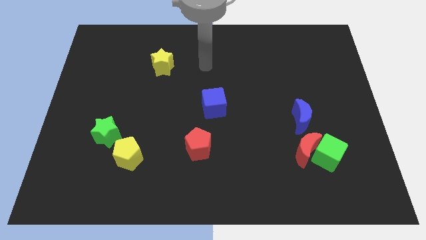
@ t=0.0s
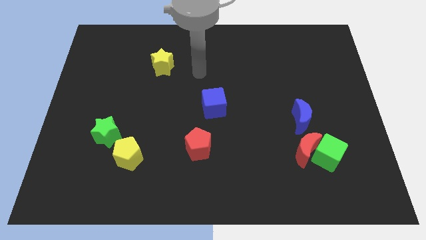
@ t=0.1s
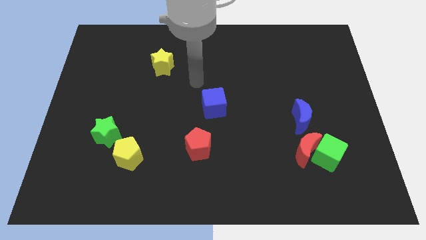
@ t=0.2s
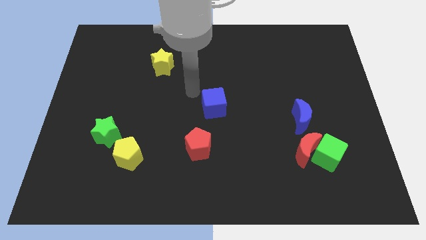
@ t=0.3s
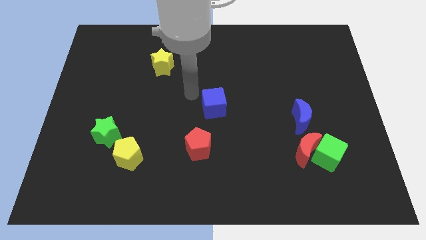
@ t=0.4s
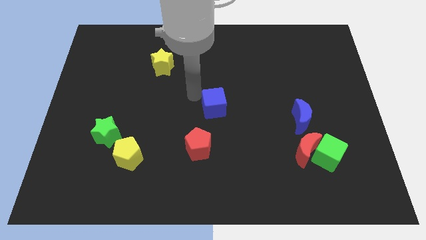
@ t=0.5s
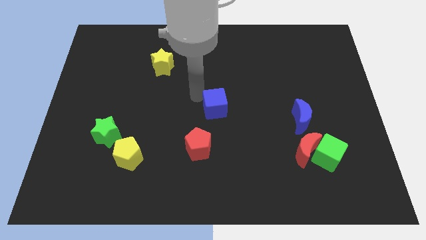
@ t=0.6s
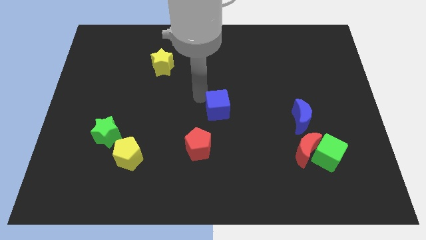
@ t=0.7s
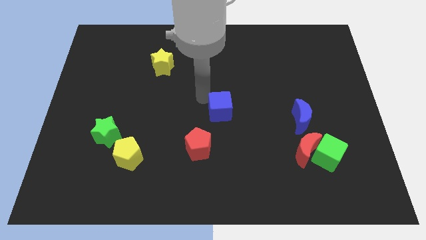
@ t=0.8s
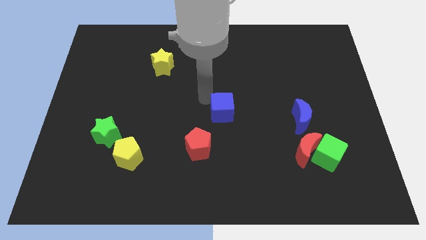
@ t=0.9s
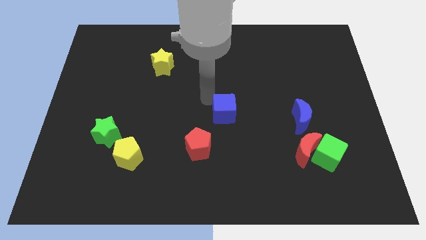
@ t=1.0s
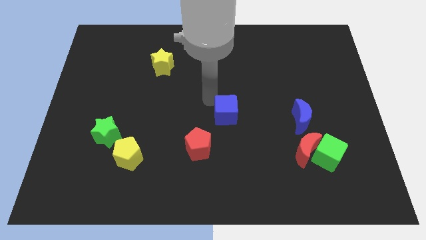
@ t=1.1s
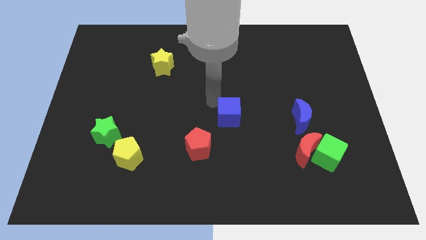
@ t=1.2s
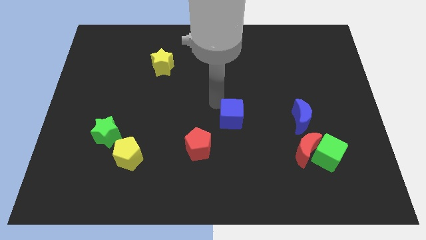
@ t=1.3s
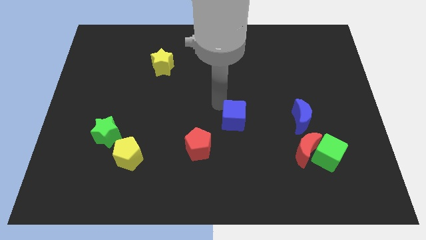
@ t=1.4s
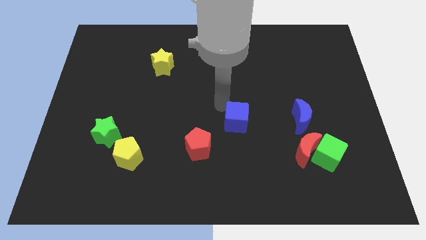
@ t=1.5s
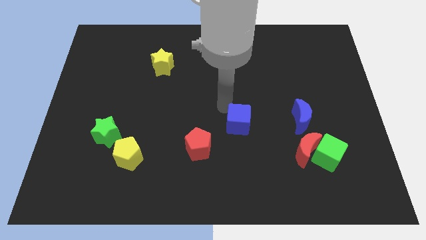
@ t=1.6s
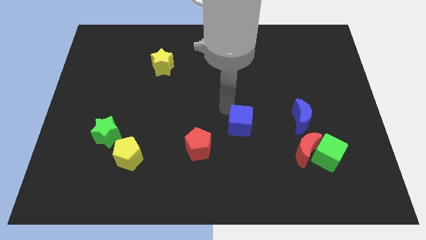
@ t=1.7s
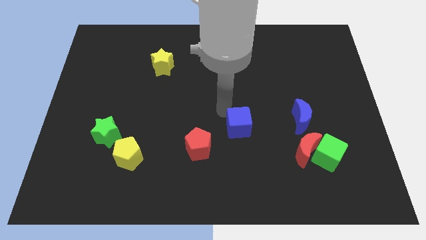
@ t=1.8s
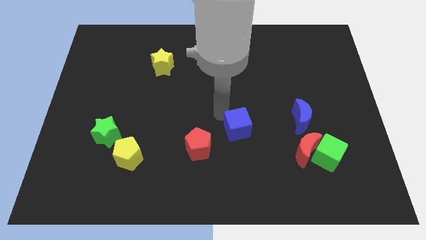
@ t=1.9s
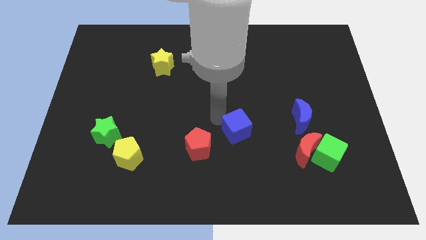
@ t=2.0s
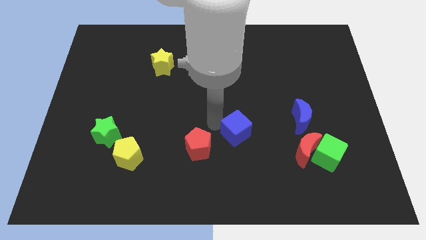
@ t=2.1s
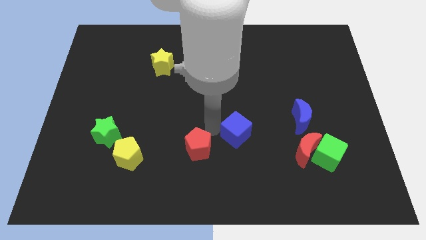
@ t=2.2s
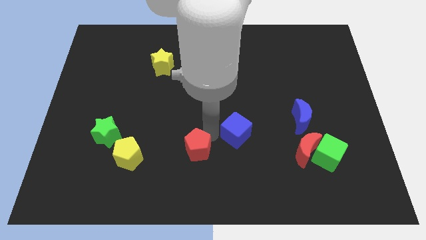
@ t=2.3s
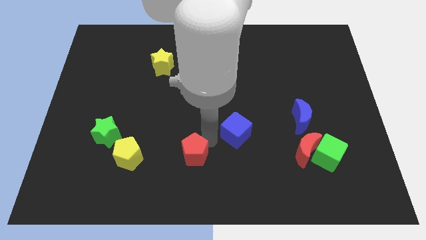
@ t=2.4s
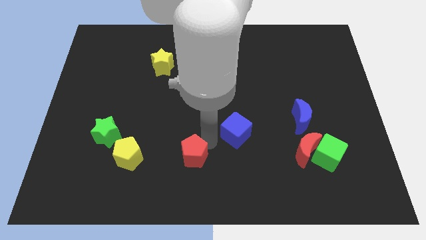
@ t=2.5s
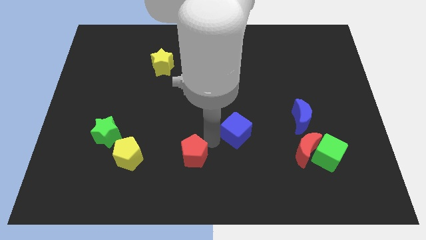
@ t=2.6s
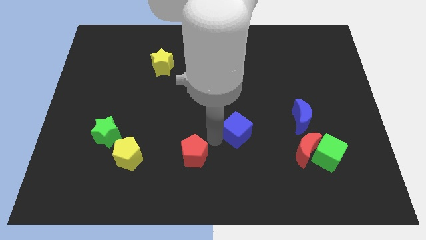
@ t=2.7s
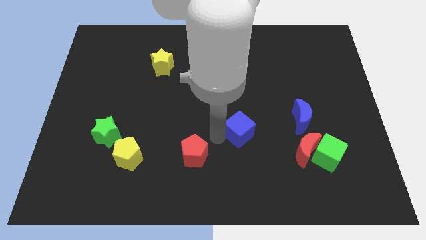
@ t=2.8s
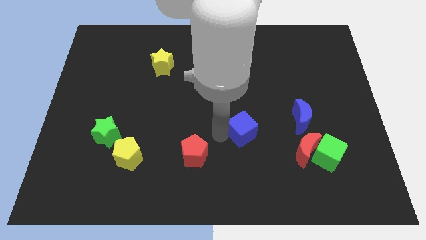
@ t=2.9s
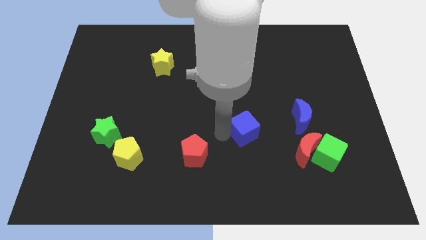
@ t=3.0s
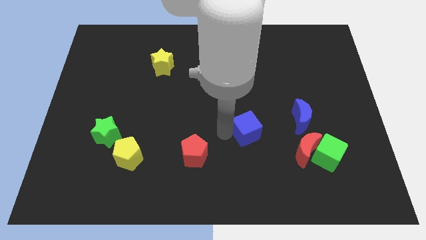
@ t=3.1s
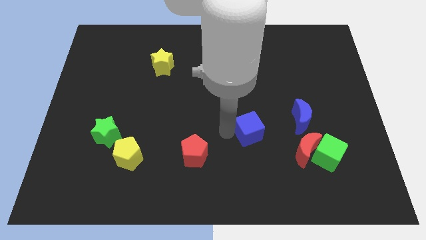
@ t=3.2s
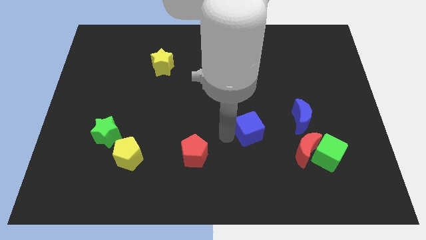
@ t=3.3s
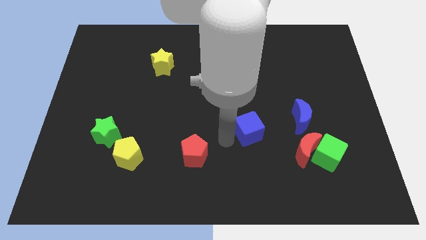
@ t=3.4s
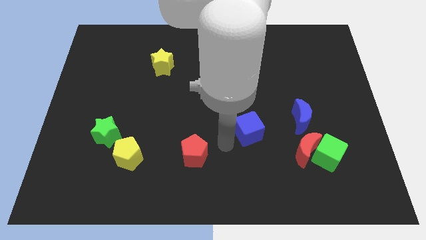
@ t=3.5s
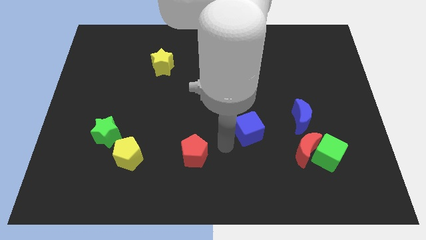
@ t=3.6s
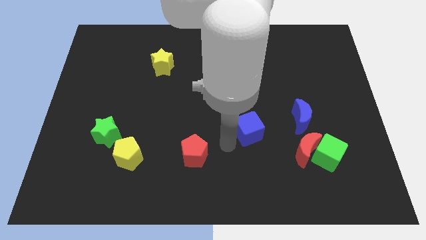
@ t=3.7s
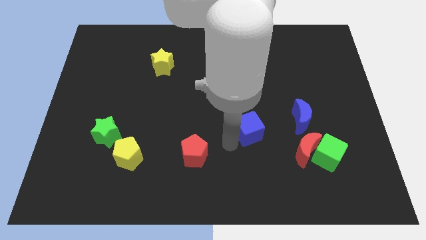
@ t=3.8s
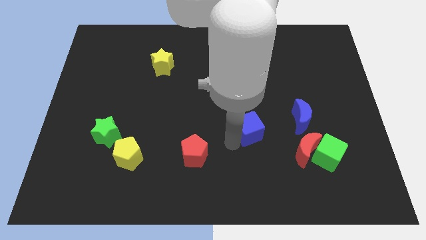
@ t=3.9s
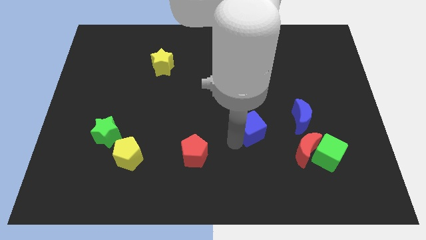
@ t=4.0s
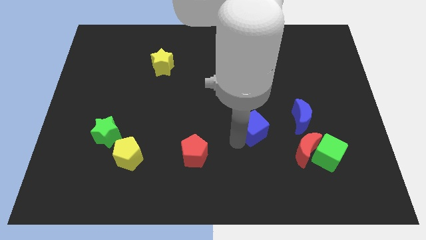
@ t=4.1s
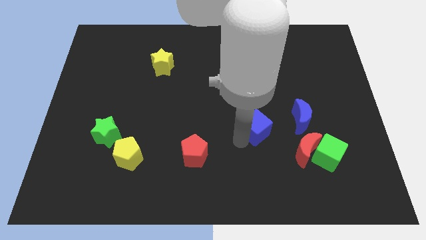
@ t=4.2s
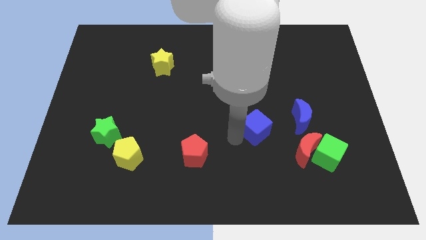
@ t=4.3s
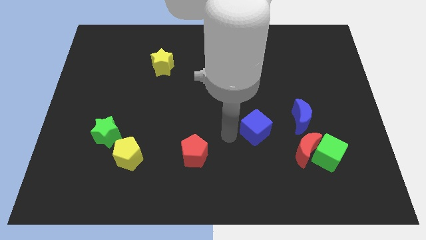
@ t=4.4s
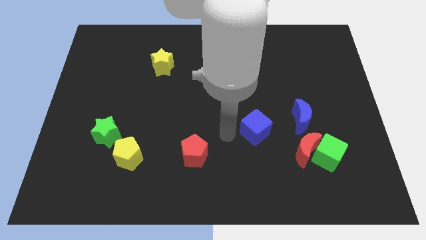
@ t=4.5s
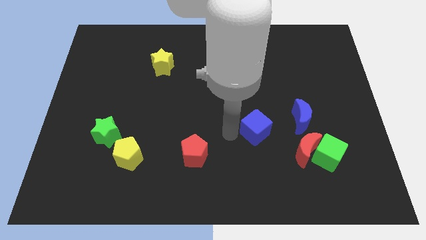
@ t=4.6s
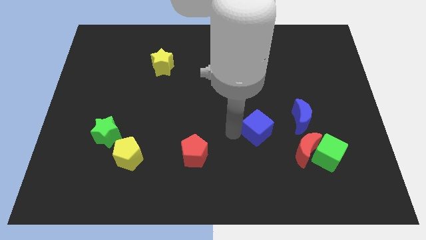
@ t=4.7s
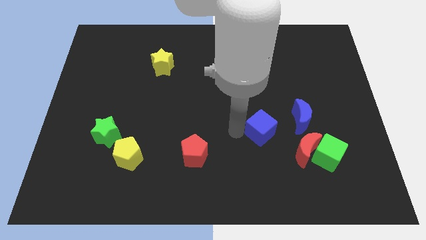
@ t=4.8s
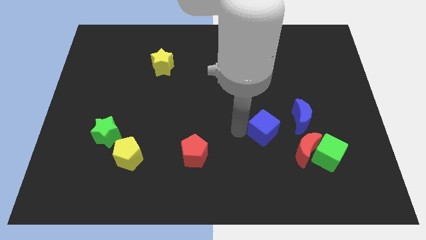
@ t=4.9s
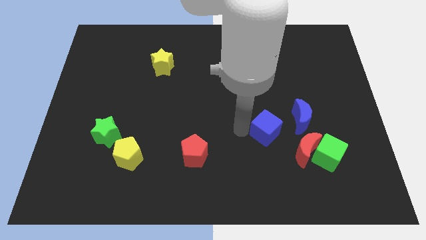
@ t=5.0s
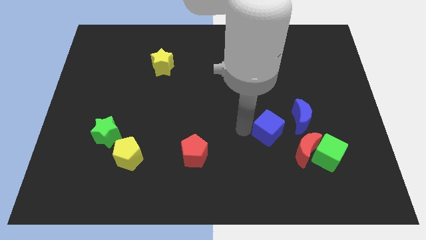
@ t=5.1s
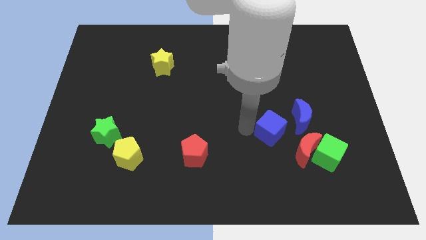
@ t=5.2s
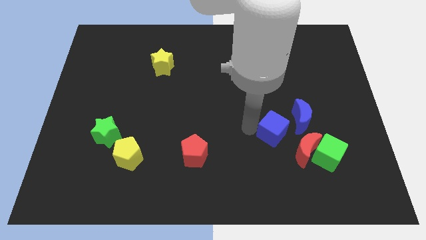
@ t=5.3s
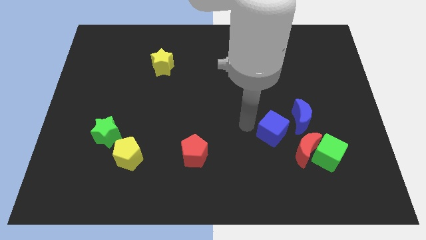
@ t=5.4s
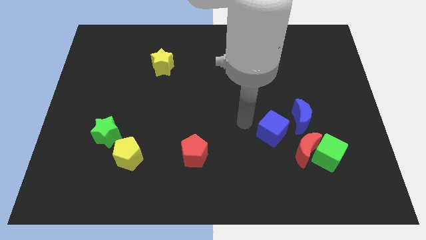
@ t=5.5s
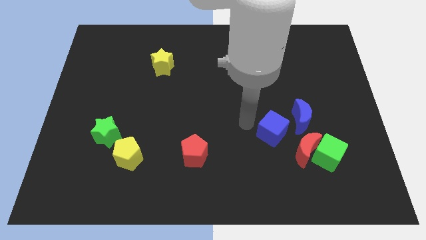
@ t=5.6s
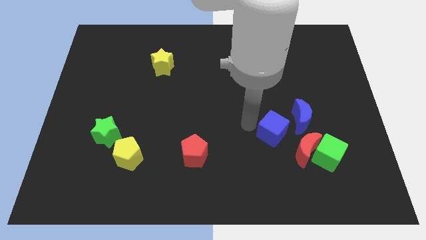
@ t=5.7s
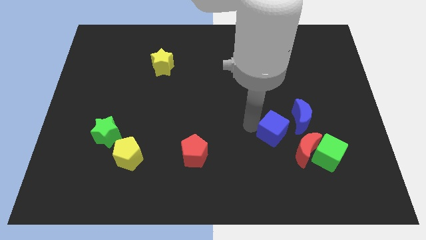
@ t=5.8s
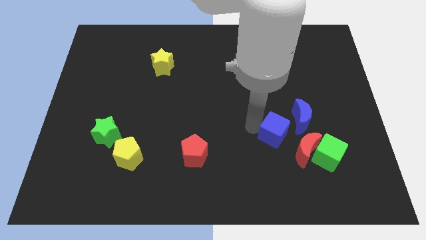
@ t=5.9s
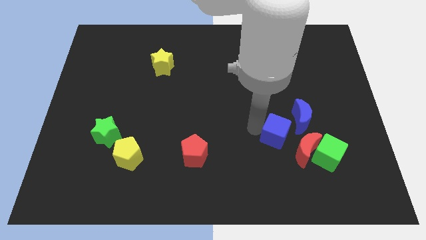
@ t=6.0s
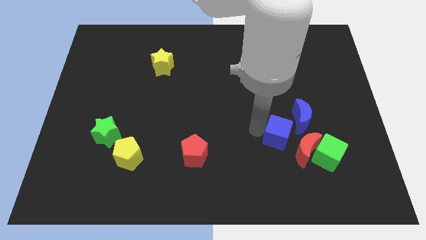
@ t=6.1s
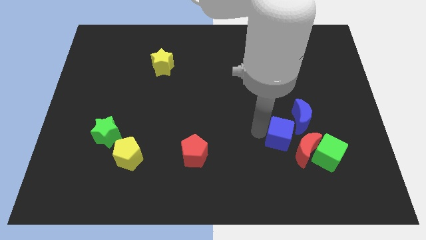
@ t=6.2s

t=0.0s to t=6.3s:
move the blue cube close to the red moon

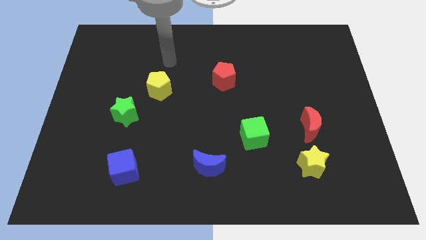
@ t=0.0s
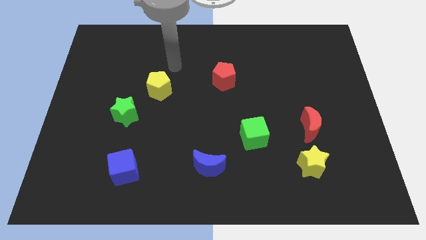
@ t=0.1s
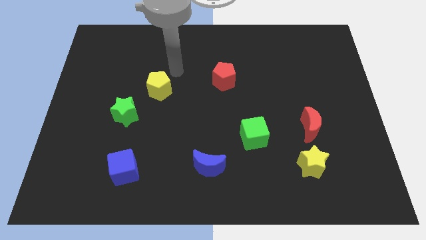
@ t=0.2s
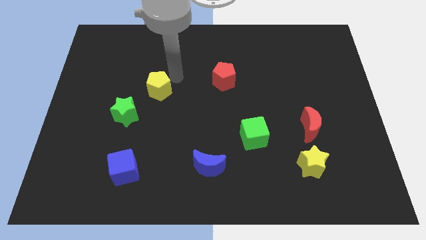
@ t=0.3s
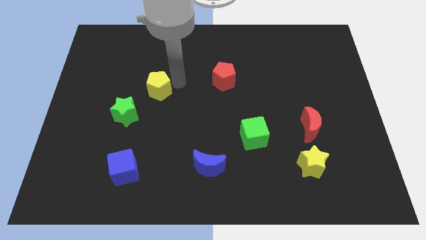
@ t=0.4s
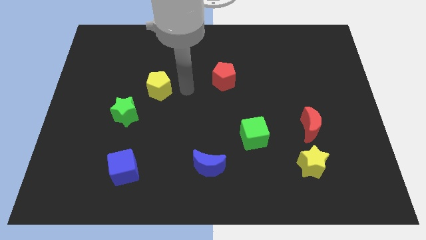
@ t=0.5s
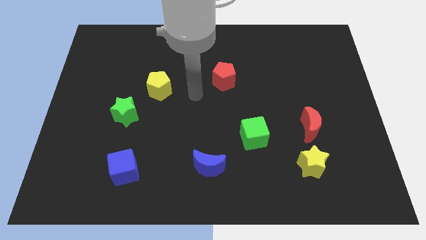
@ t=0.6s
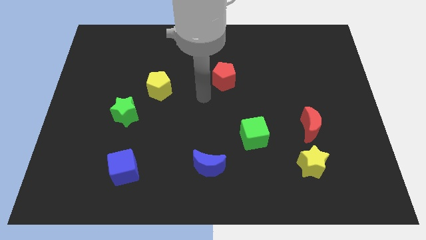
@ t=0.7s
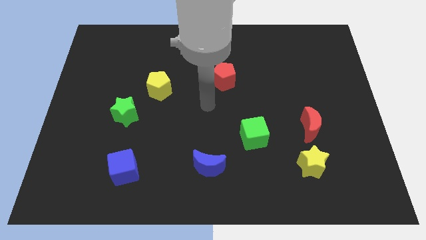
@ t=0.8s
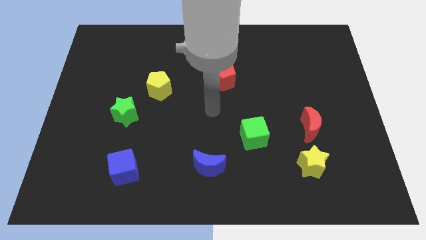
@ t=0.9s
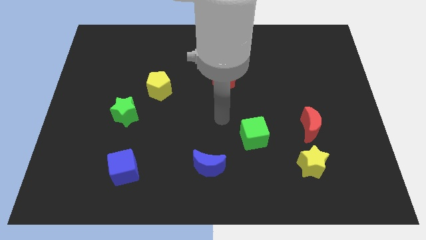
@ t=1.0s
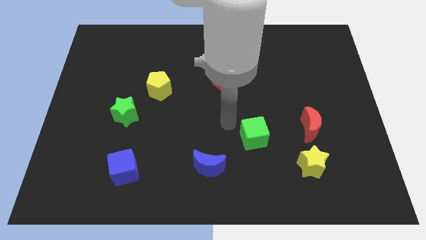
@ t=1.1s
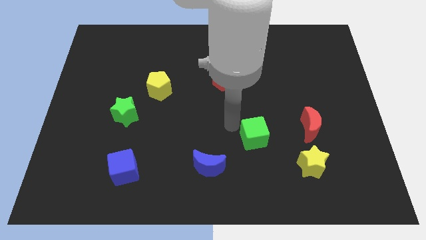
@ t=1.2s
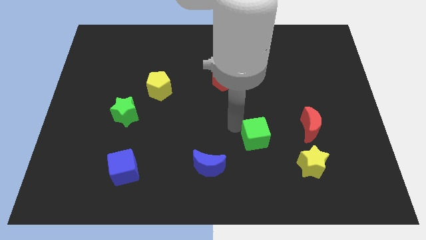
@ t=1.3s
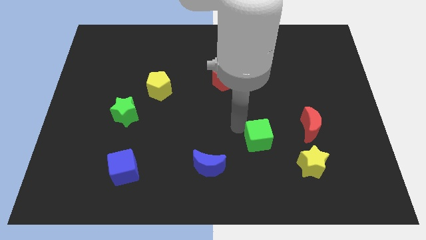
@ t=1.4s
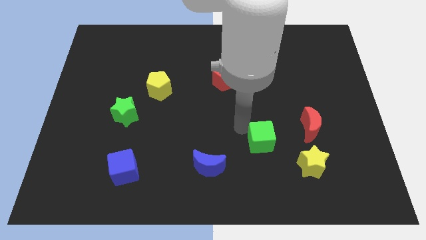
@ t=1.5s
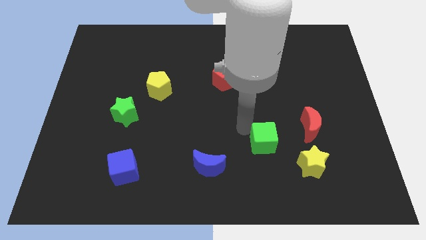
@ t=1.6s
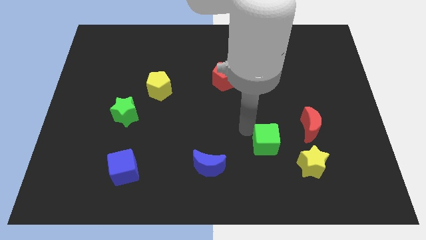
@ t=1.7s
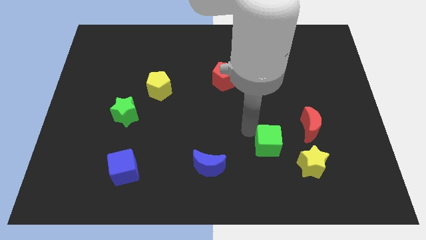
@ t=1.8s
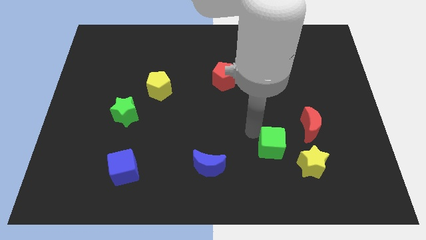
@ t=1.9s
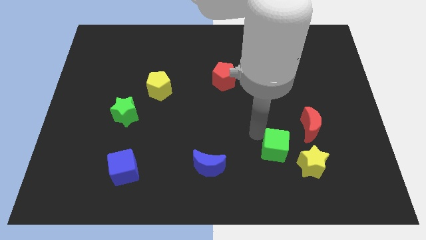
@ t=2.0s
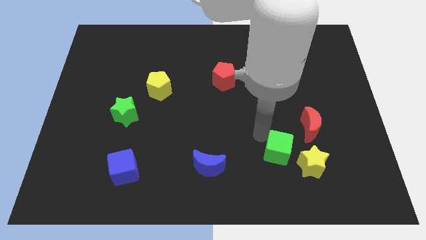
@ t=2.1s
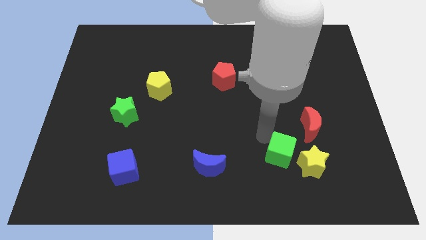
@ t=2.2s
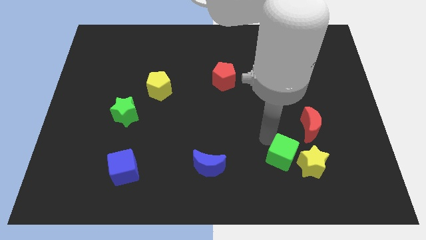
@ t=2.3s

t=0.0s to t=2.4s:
slide the green cube next to the yellow star
